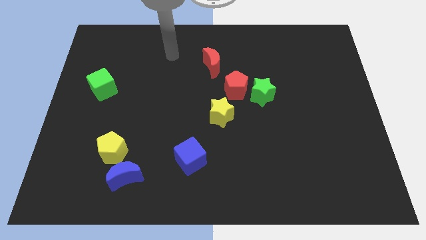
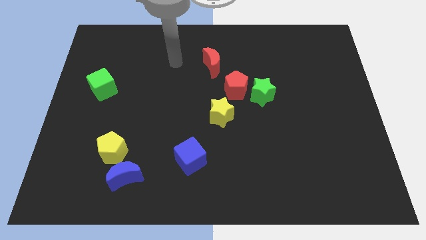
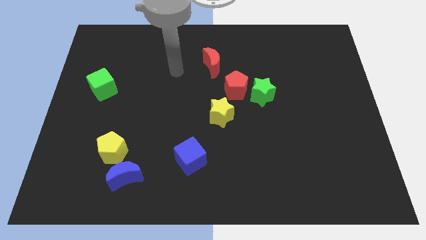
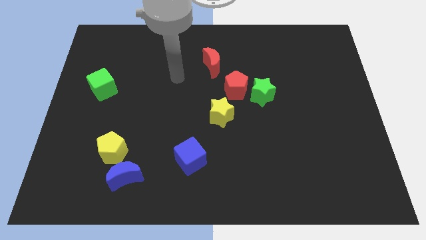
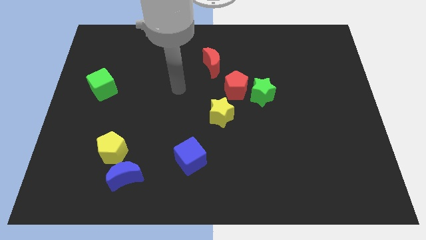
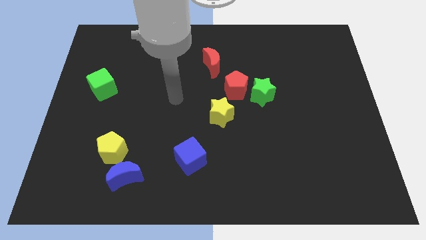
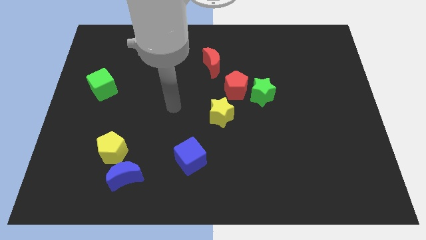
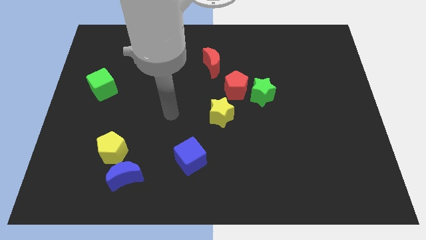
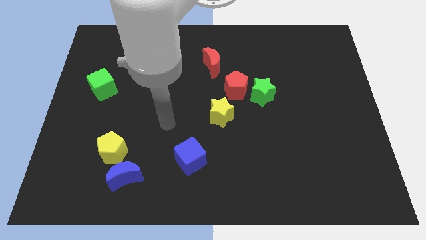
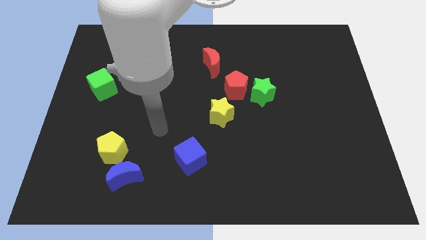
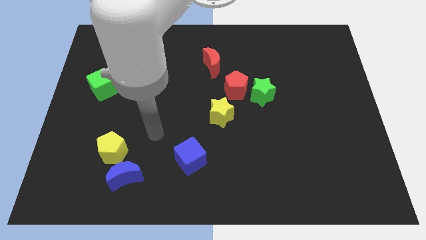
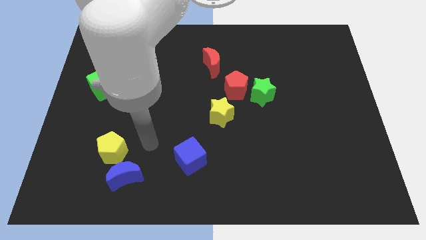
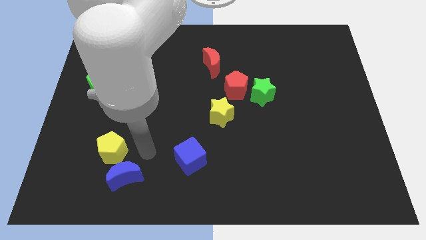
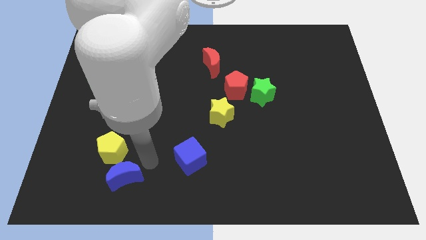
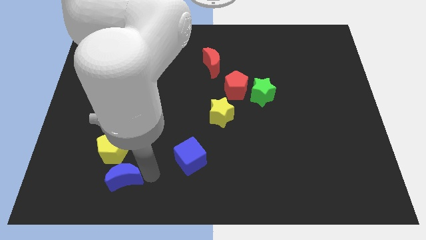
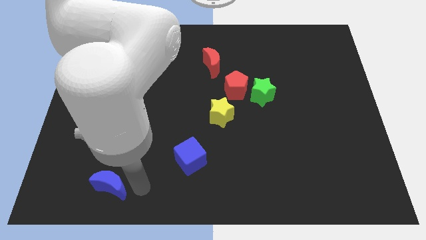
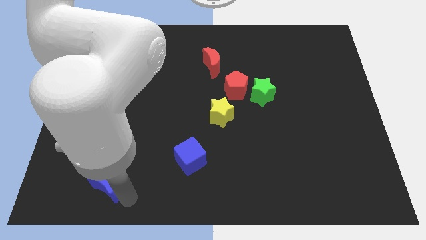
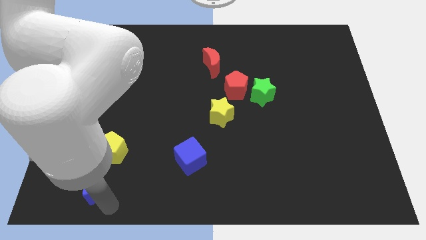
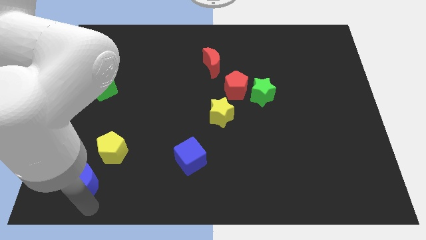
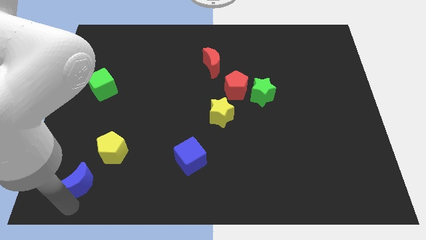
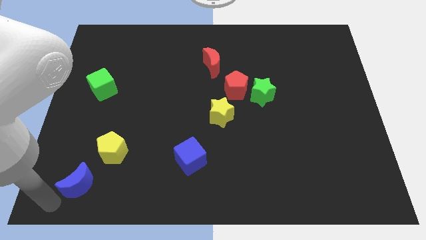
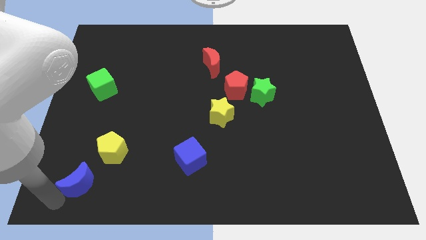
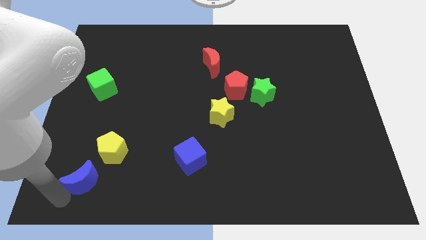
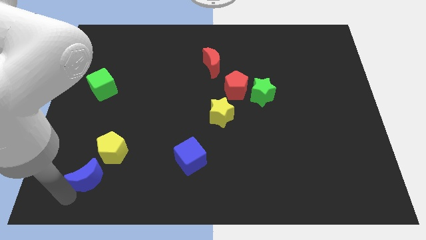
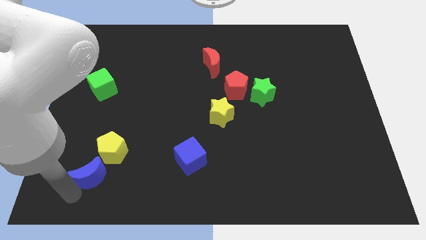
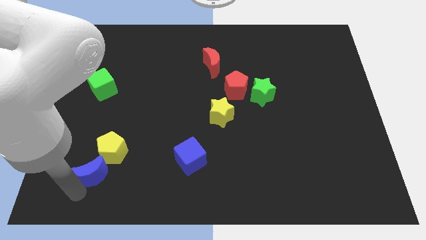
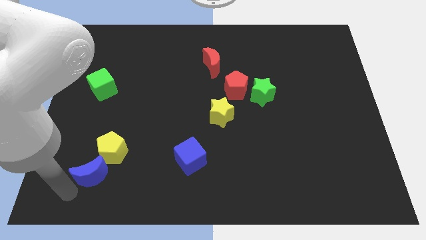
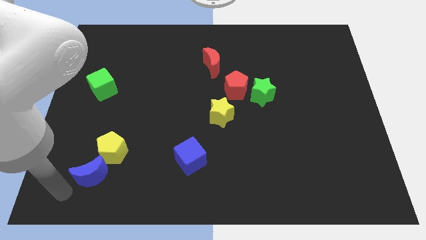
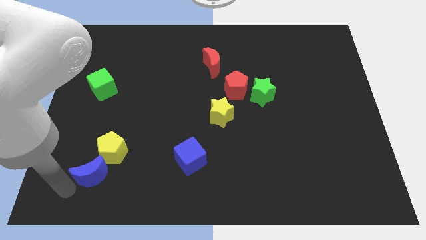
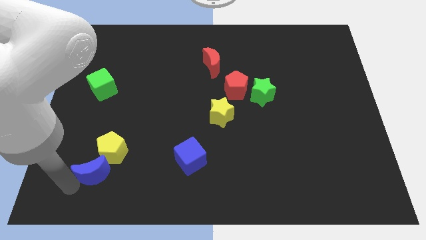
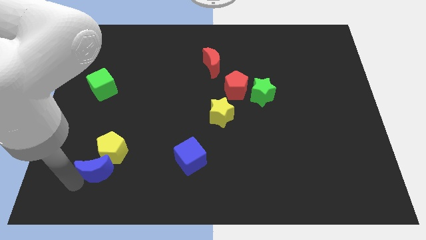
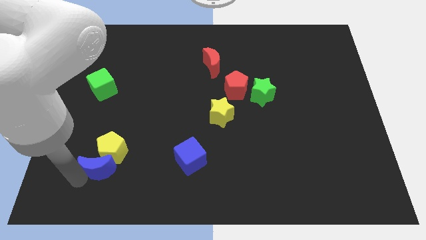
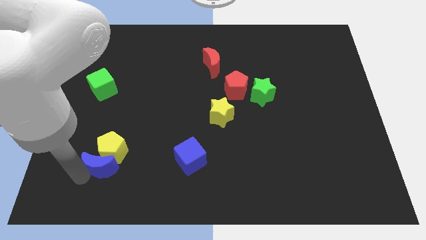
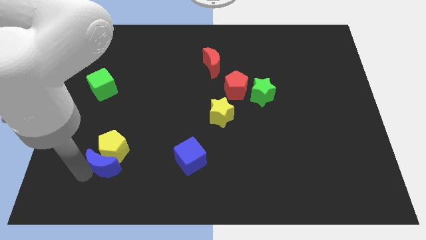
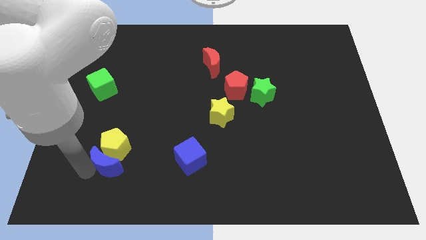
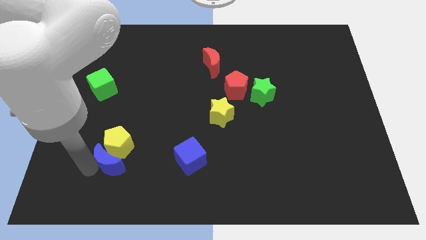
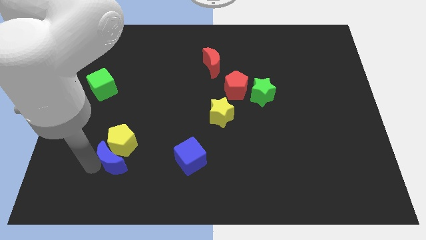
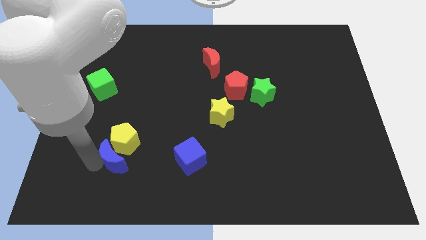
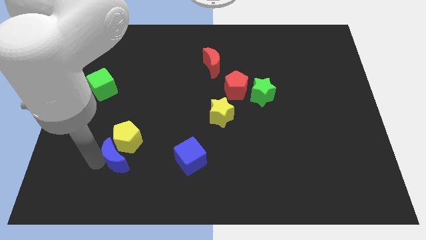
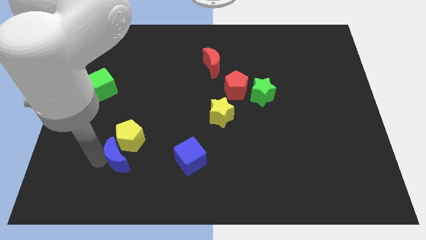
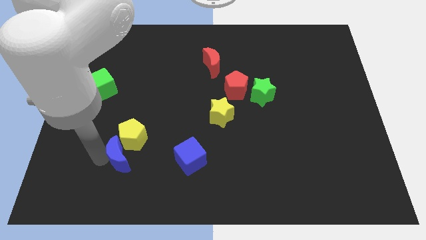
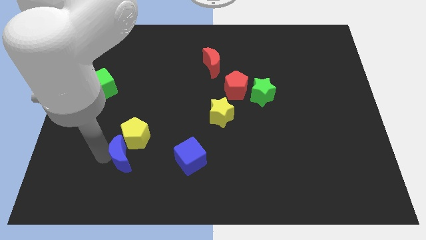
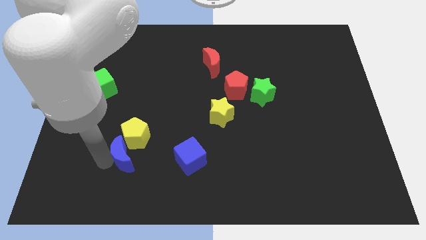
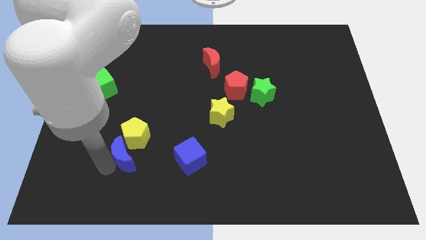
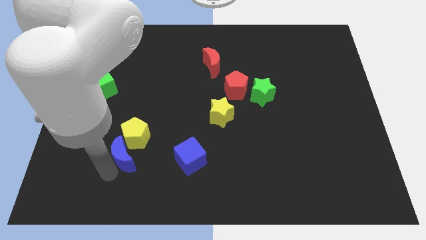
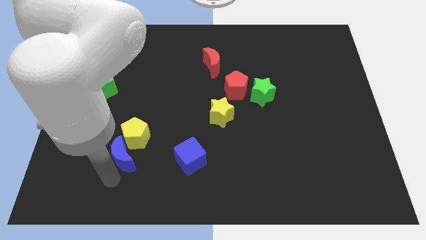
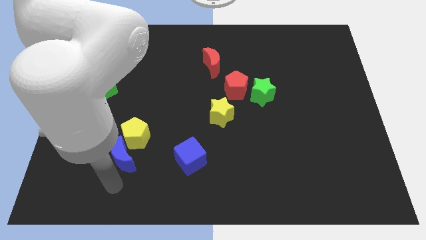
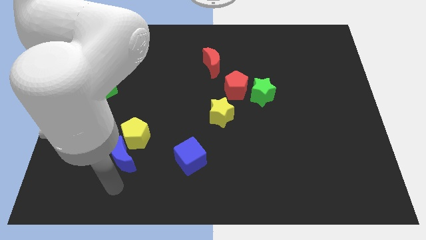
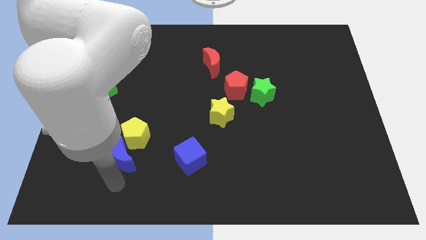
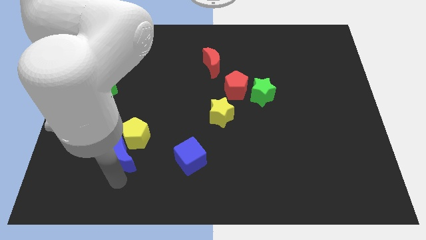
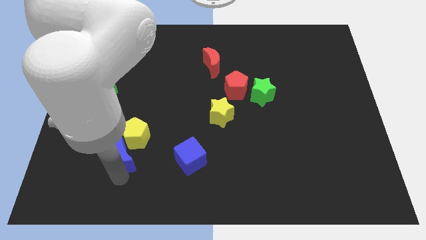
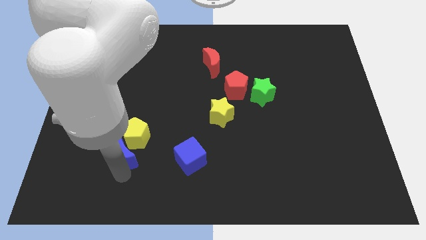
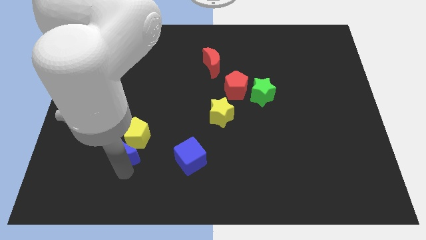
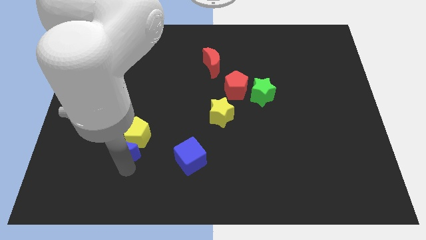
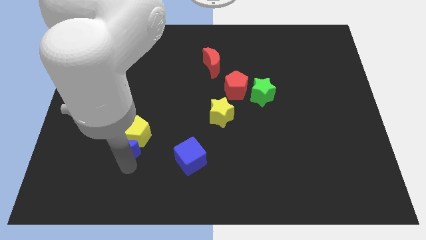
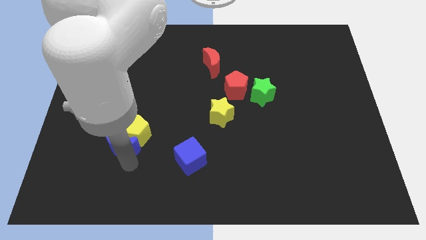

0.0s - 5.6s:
slightly slide the blue moon upwards

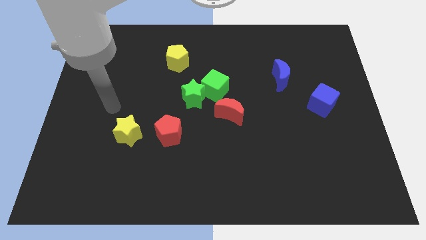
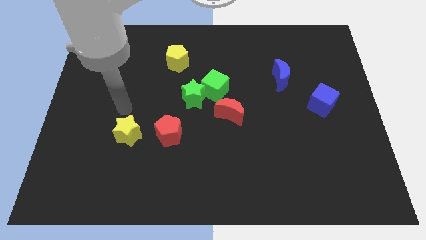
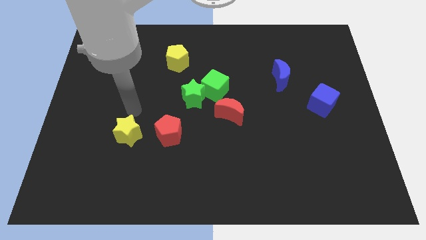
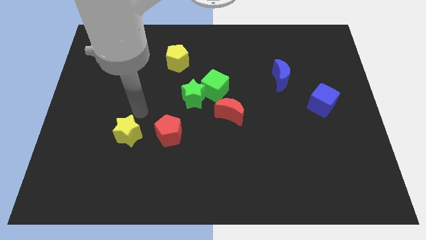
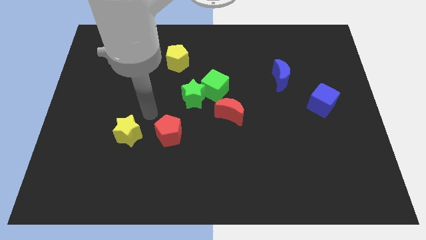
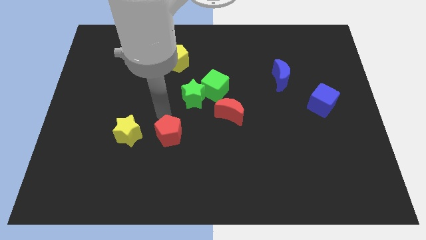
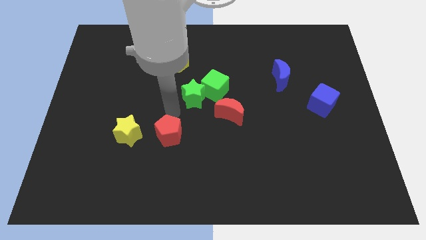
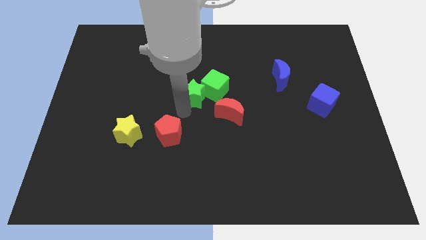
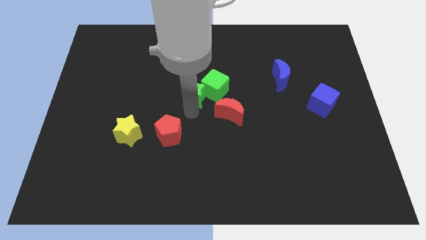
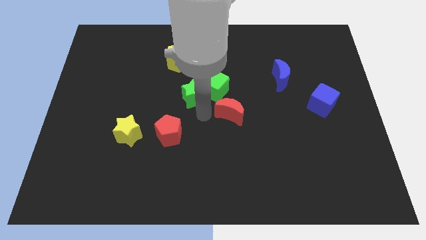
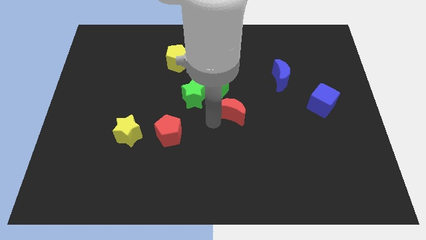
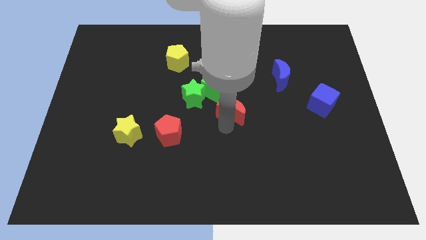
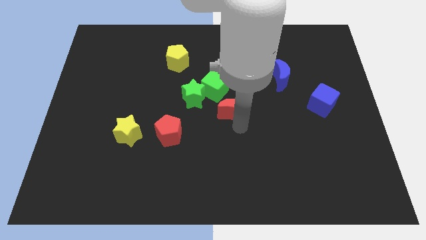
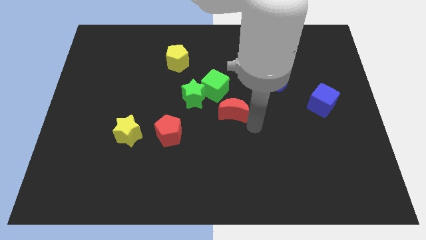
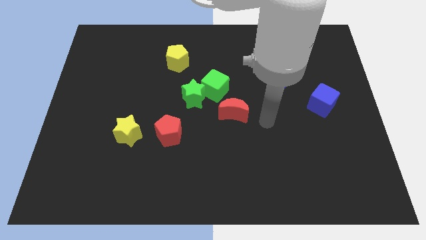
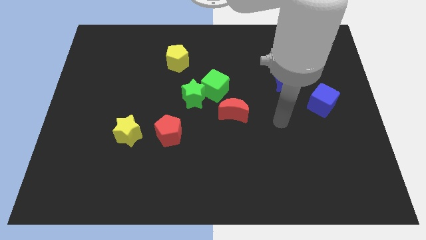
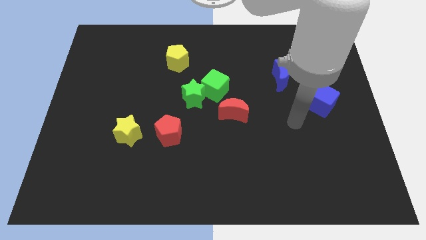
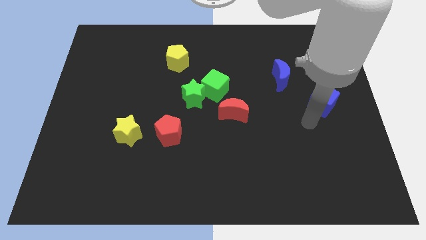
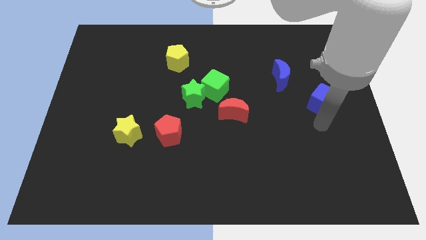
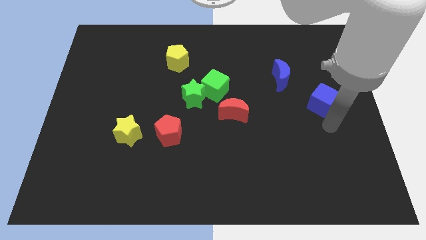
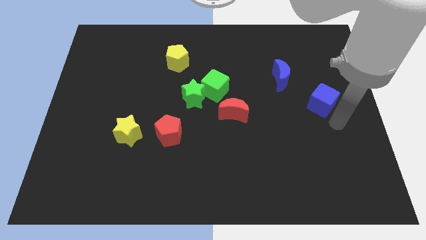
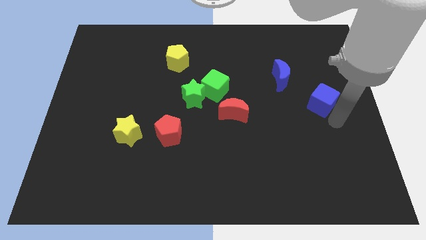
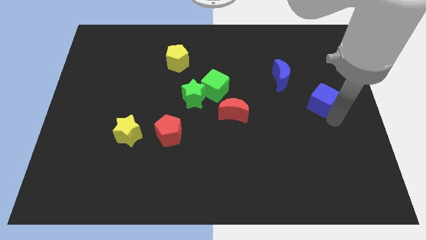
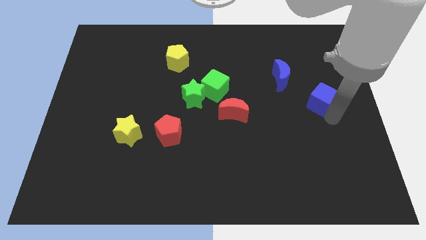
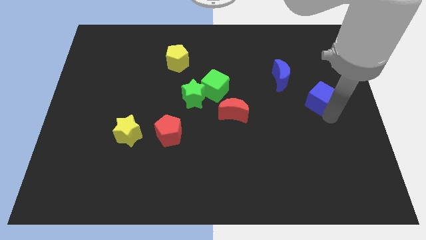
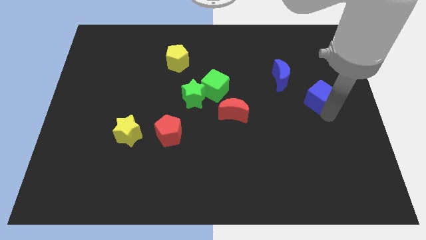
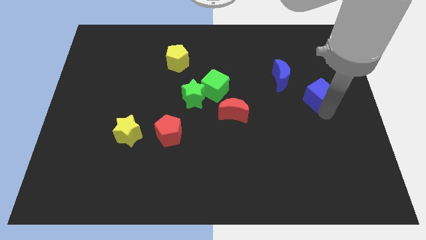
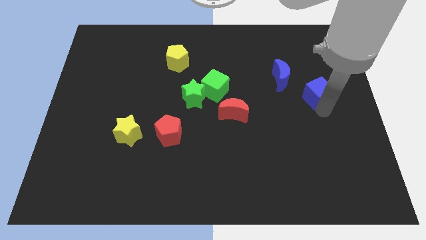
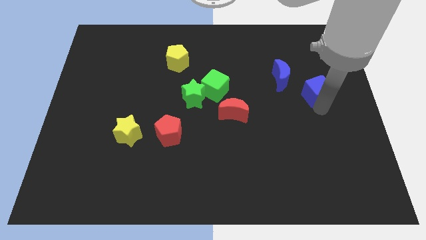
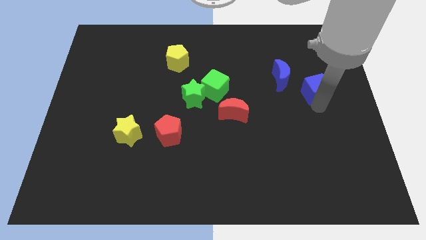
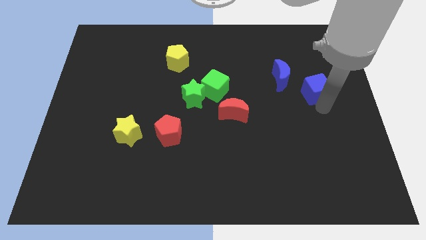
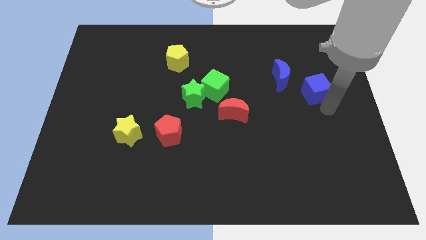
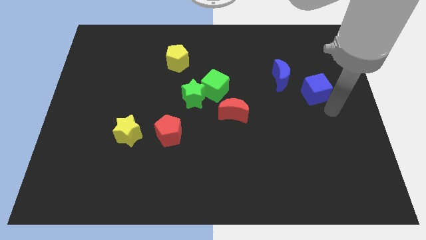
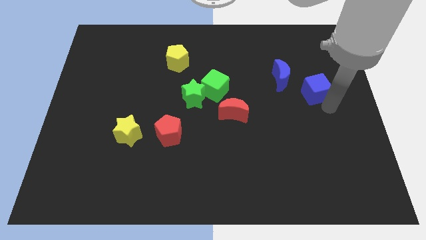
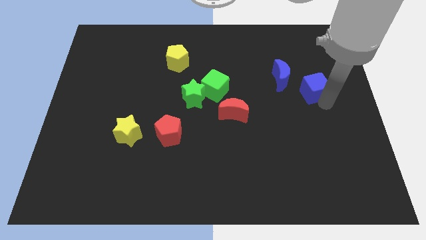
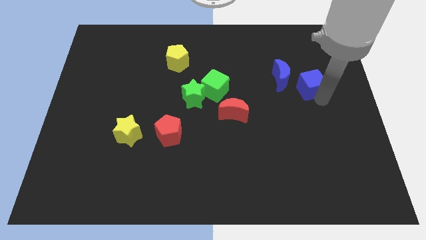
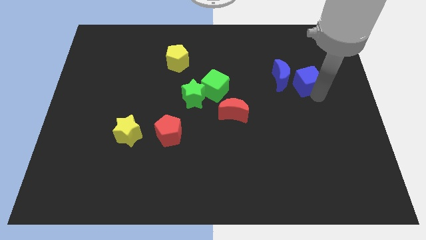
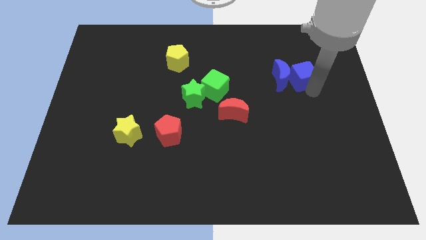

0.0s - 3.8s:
slightly slide the blue cube upwards and left
